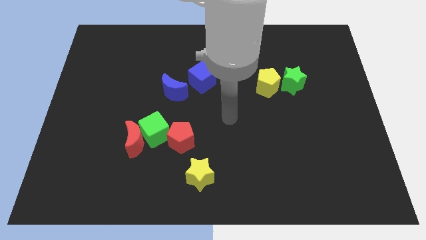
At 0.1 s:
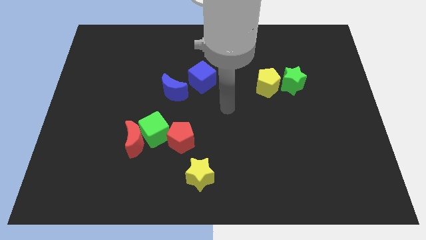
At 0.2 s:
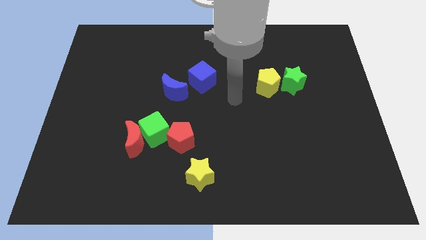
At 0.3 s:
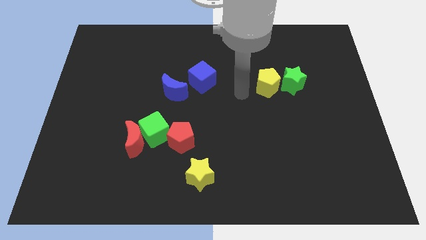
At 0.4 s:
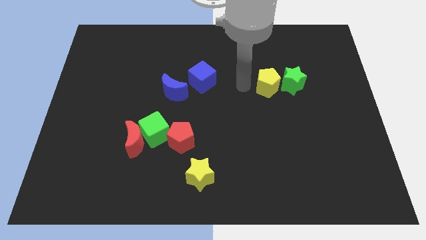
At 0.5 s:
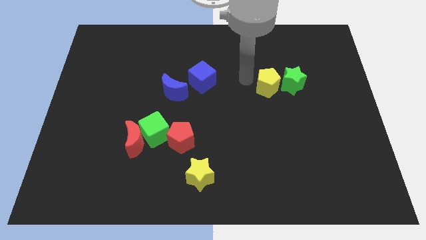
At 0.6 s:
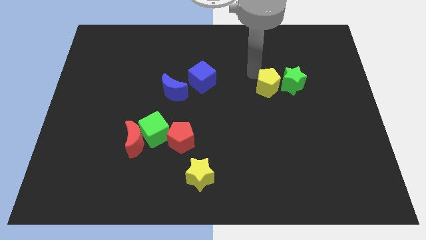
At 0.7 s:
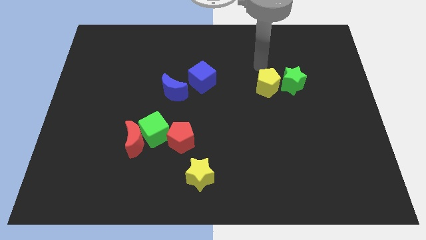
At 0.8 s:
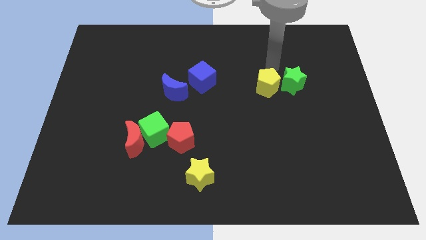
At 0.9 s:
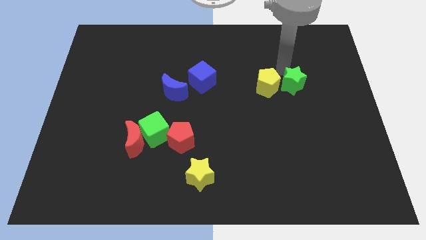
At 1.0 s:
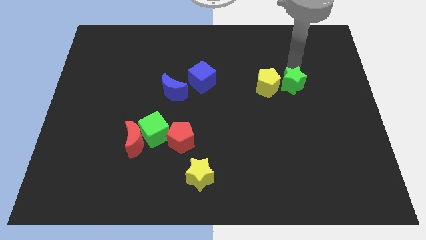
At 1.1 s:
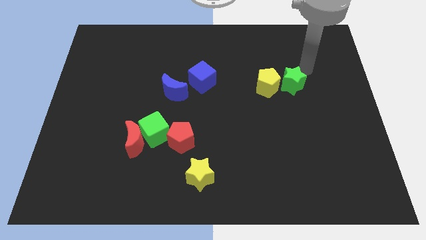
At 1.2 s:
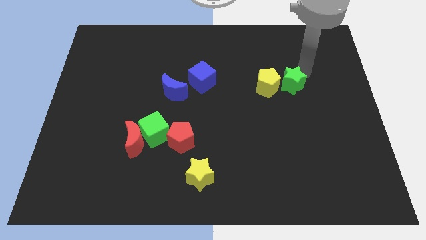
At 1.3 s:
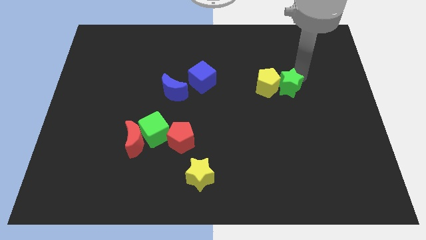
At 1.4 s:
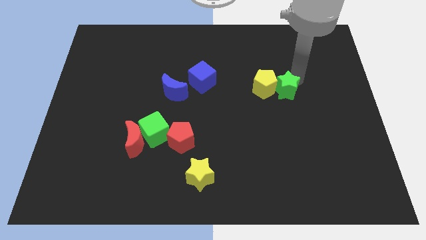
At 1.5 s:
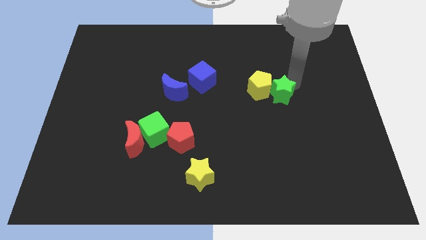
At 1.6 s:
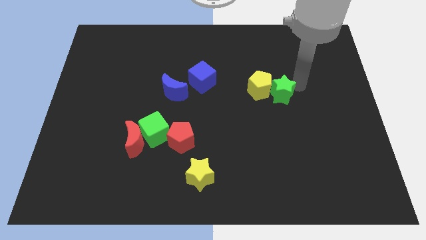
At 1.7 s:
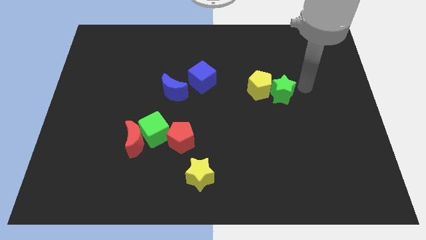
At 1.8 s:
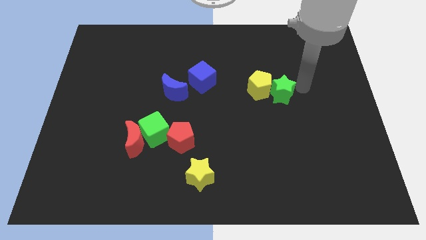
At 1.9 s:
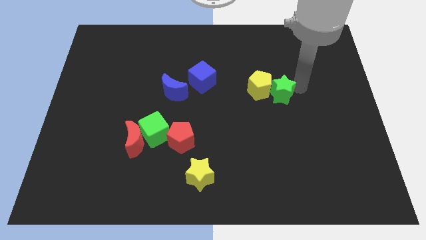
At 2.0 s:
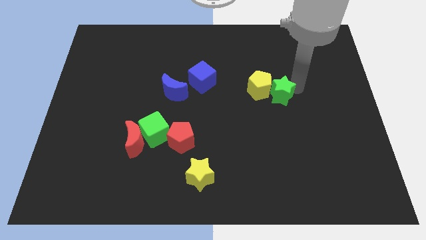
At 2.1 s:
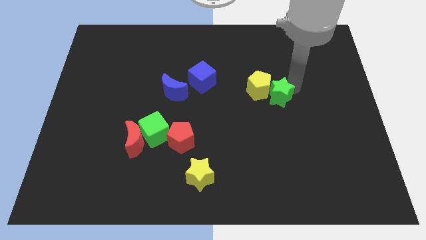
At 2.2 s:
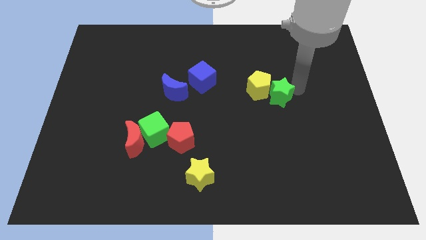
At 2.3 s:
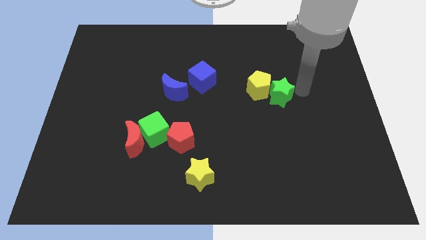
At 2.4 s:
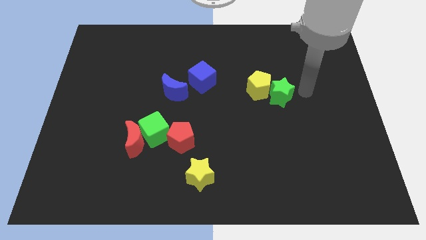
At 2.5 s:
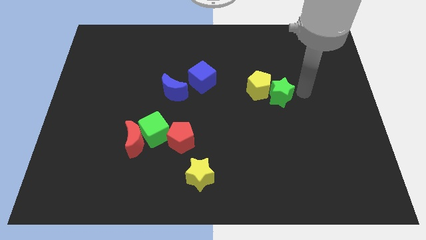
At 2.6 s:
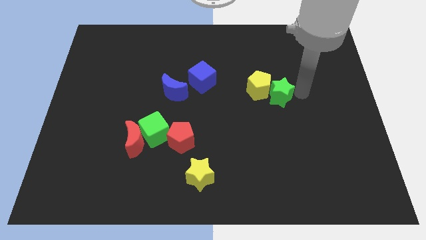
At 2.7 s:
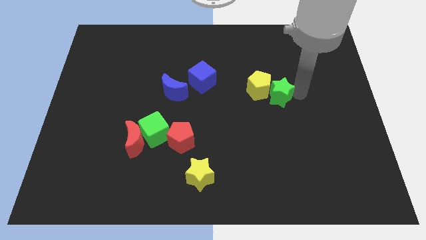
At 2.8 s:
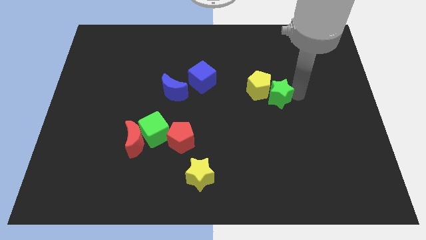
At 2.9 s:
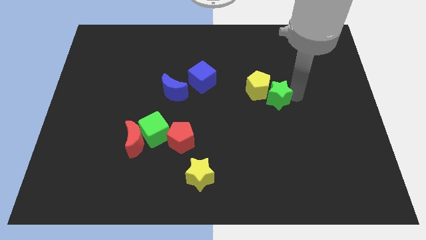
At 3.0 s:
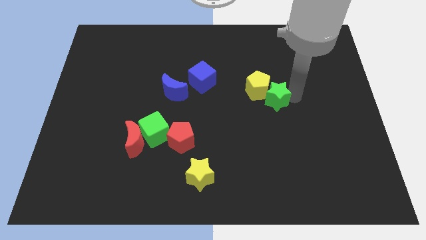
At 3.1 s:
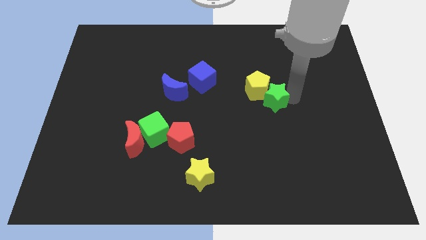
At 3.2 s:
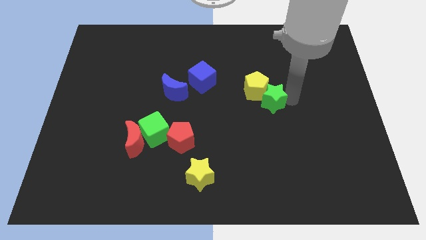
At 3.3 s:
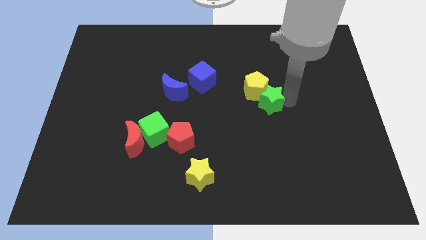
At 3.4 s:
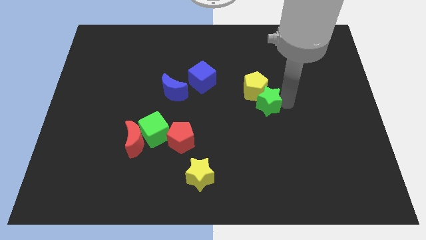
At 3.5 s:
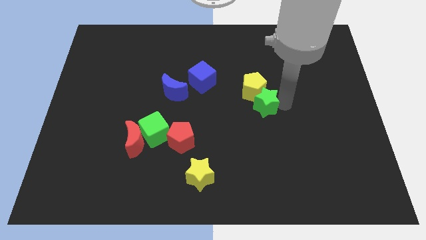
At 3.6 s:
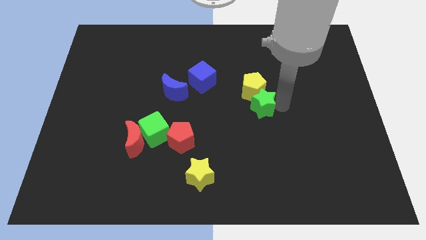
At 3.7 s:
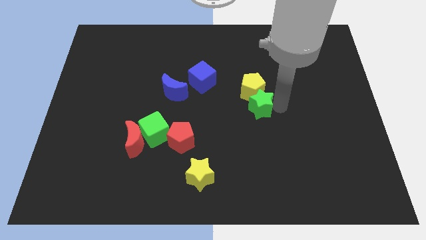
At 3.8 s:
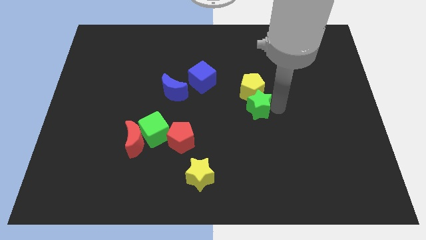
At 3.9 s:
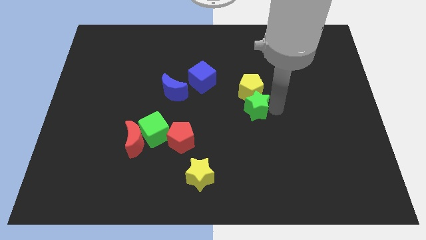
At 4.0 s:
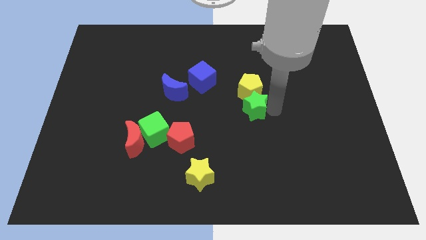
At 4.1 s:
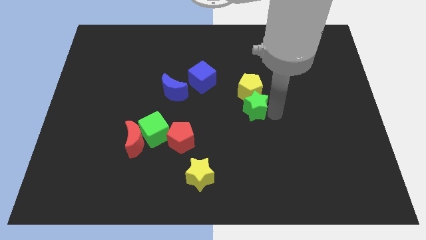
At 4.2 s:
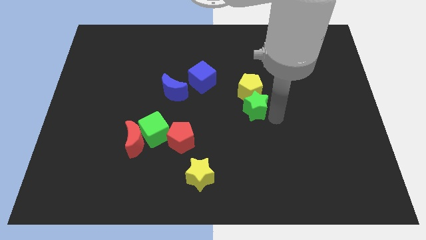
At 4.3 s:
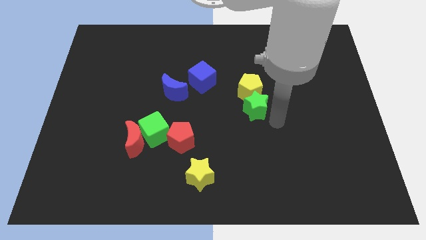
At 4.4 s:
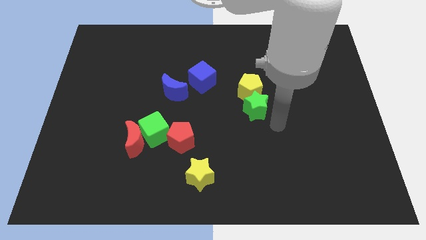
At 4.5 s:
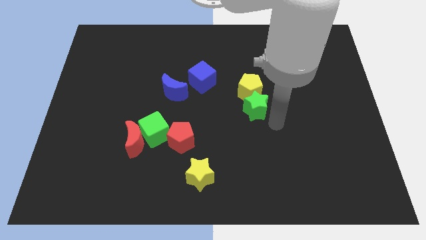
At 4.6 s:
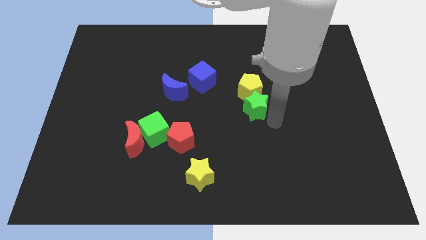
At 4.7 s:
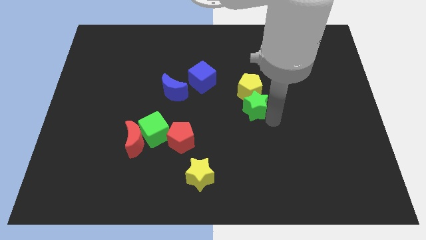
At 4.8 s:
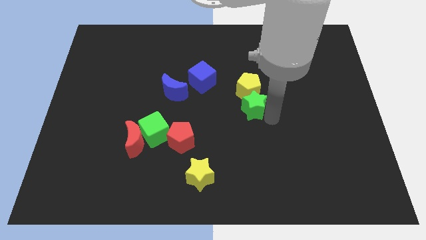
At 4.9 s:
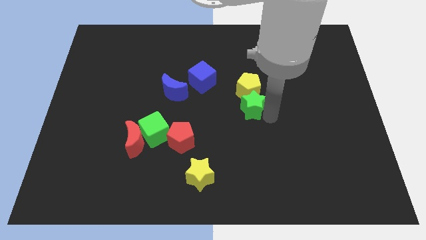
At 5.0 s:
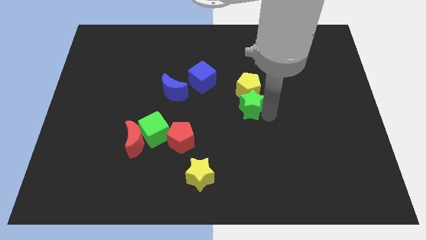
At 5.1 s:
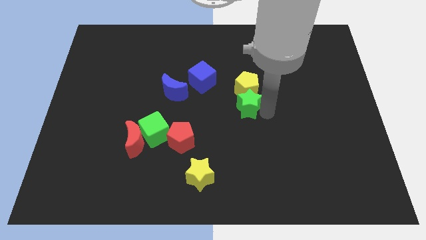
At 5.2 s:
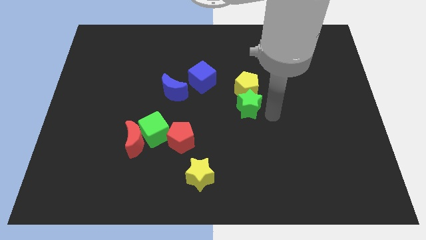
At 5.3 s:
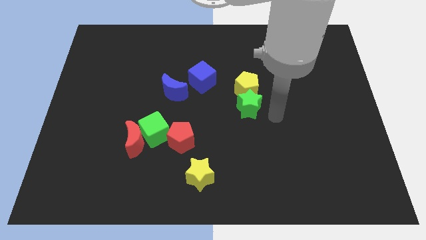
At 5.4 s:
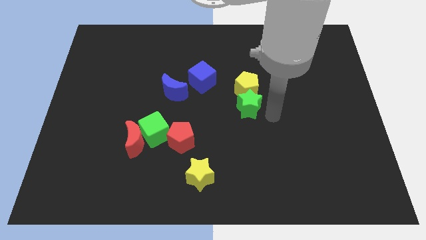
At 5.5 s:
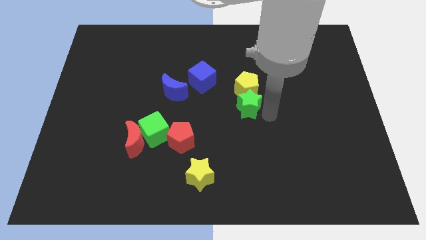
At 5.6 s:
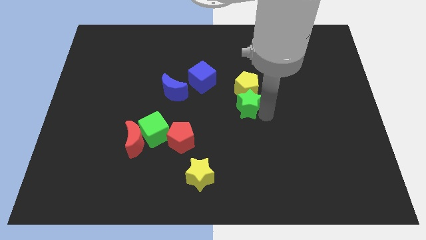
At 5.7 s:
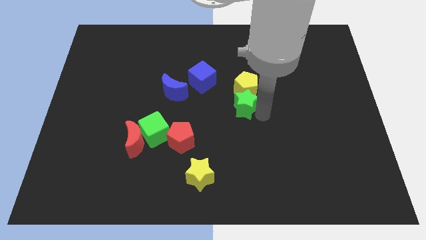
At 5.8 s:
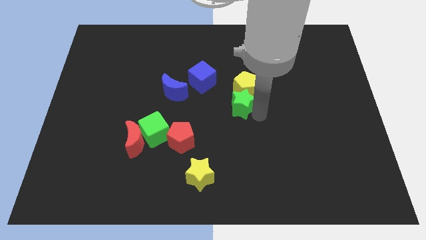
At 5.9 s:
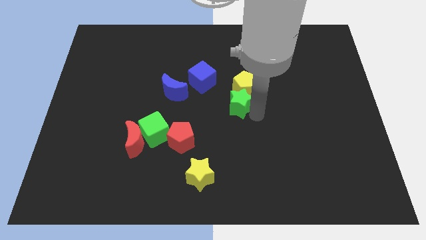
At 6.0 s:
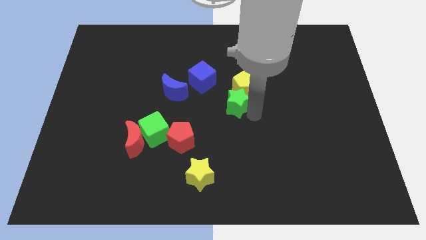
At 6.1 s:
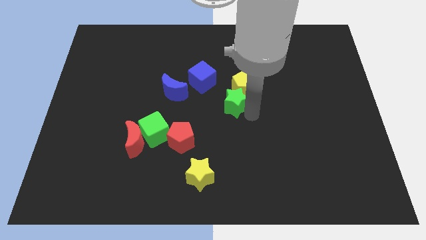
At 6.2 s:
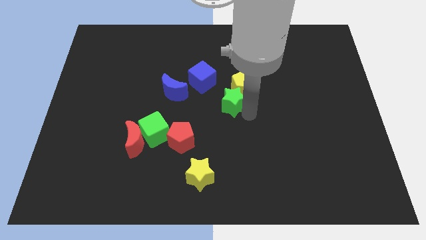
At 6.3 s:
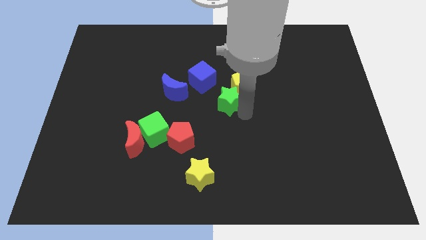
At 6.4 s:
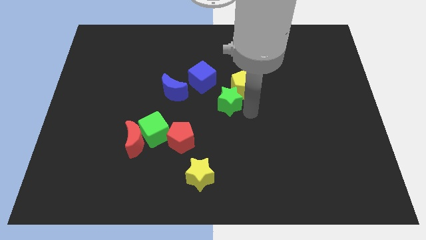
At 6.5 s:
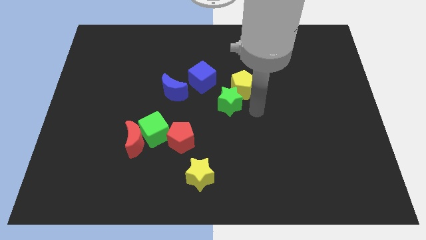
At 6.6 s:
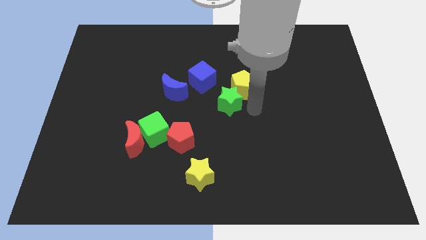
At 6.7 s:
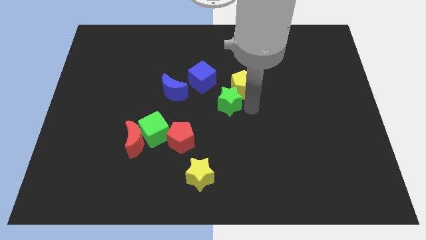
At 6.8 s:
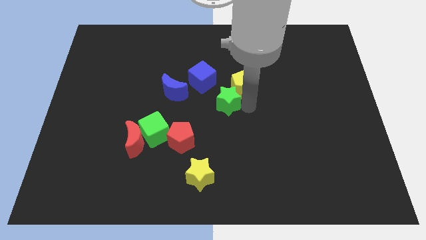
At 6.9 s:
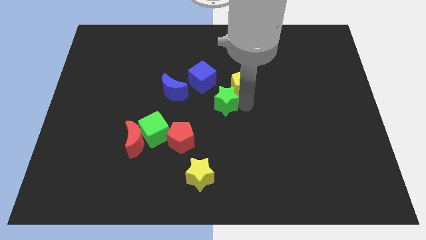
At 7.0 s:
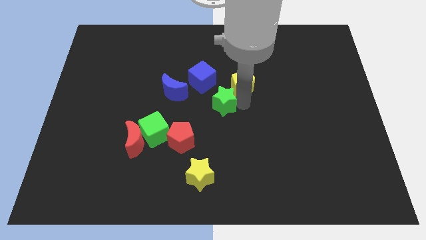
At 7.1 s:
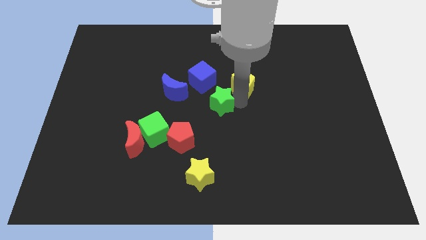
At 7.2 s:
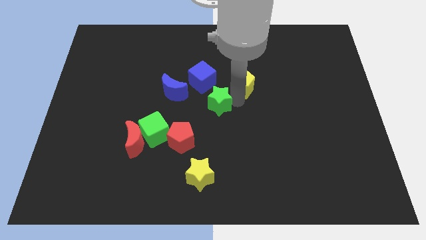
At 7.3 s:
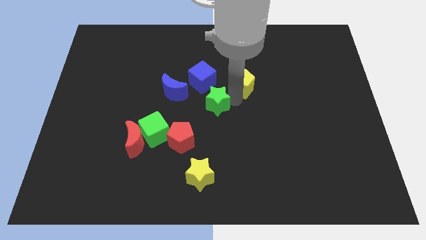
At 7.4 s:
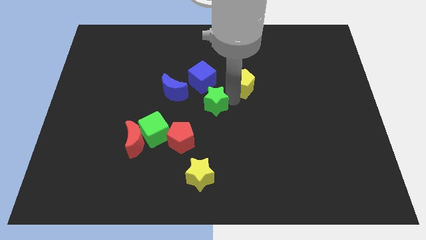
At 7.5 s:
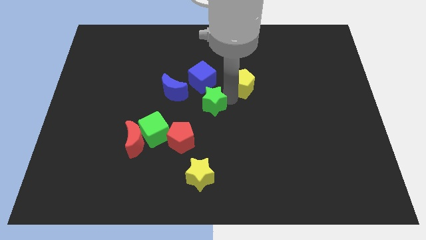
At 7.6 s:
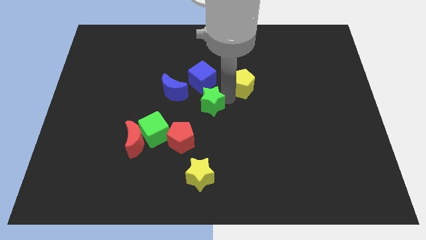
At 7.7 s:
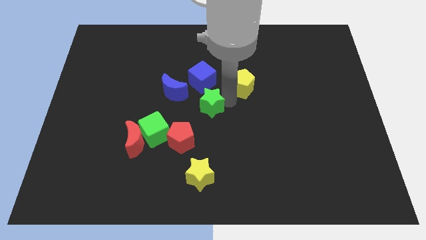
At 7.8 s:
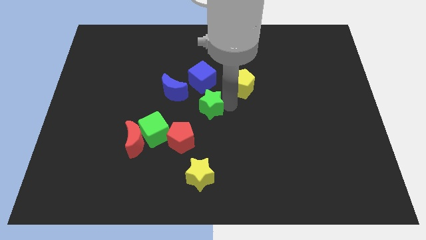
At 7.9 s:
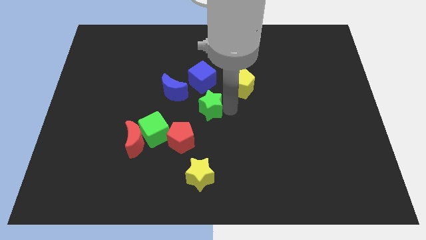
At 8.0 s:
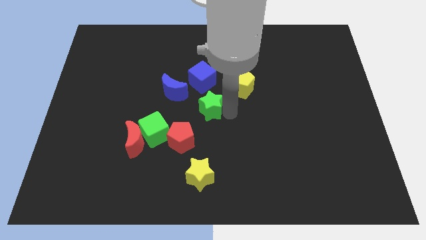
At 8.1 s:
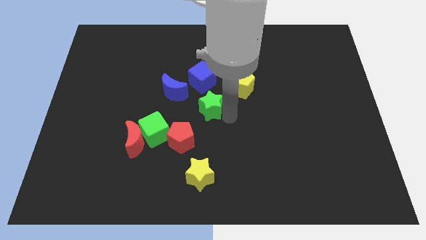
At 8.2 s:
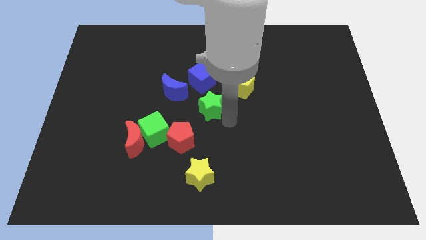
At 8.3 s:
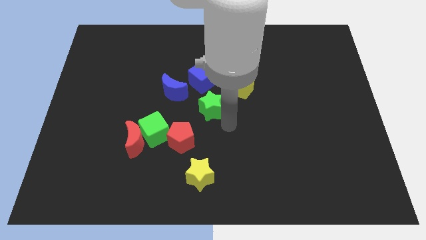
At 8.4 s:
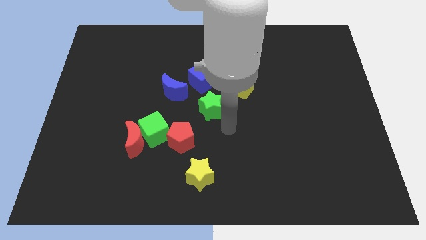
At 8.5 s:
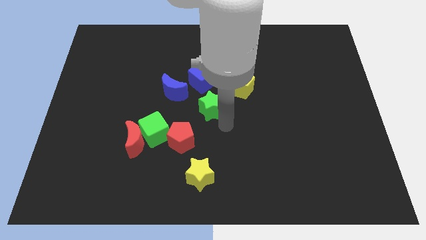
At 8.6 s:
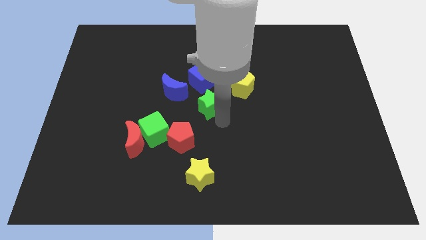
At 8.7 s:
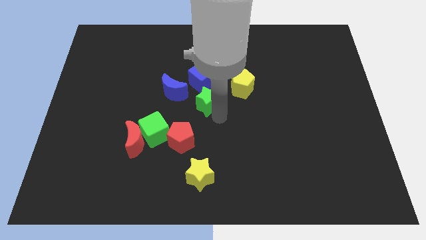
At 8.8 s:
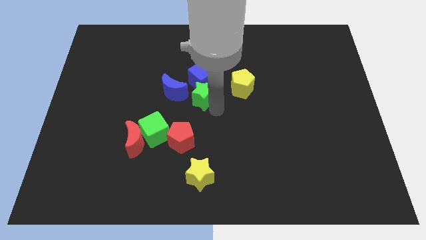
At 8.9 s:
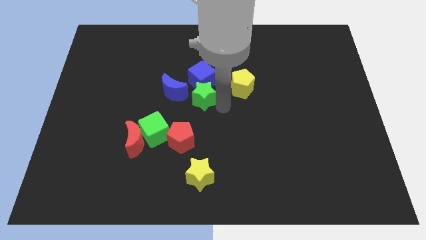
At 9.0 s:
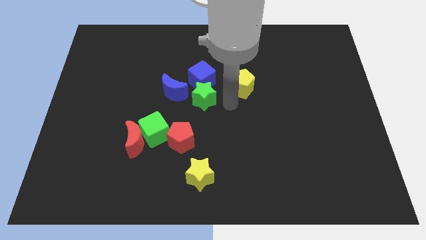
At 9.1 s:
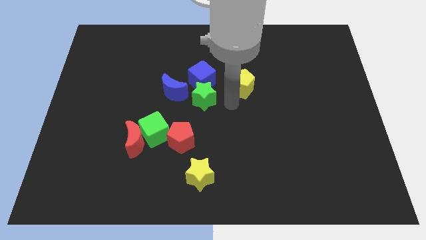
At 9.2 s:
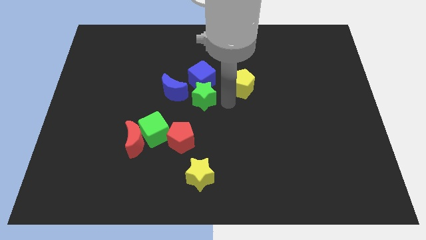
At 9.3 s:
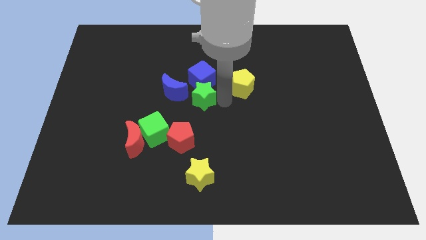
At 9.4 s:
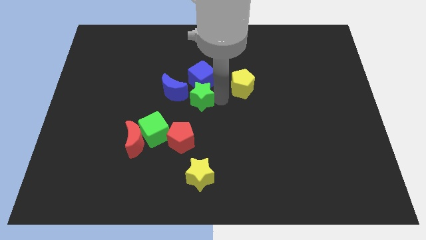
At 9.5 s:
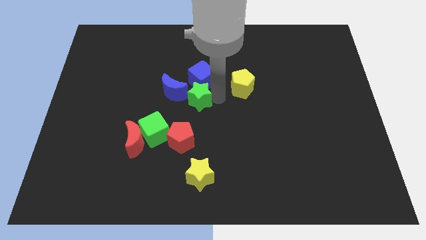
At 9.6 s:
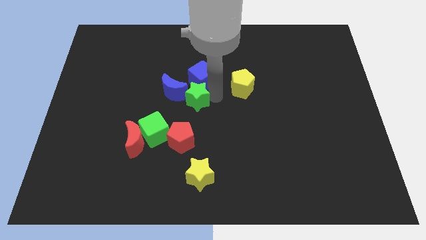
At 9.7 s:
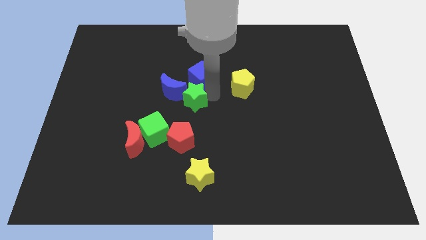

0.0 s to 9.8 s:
slide the green star to the blue moon
